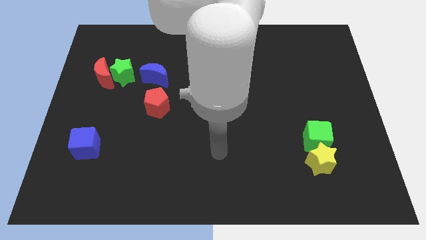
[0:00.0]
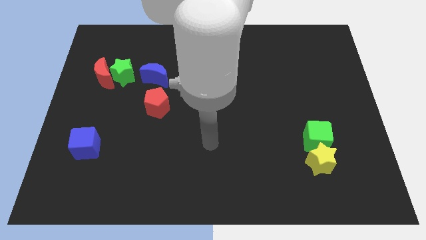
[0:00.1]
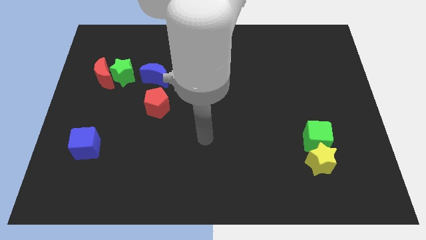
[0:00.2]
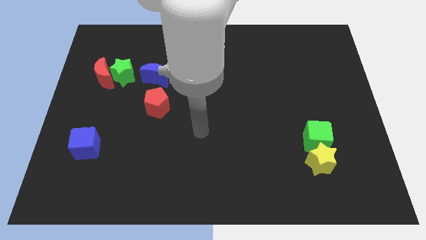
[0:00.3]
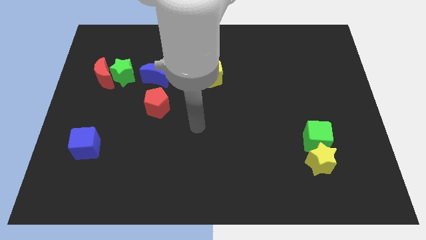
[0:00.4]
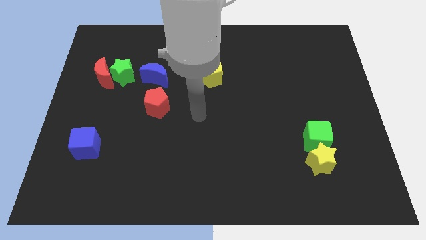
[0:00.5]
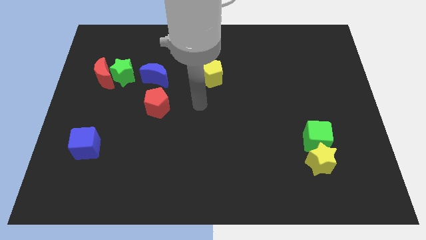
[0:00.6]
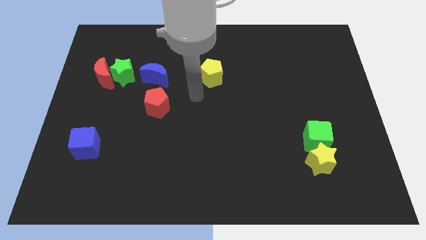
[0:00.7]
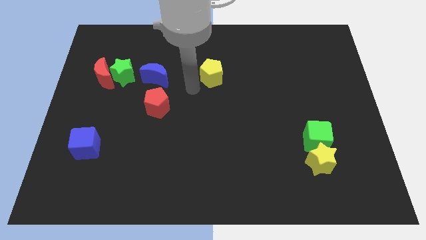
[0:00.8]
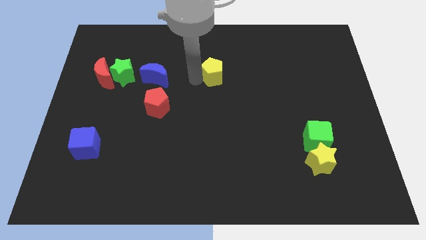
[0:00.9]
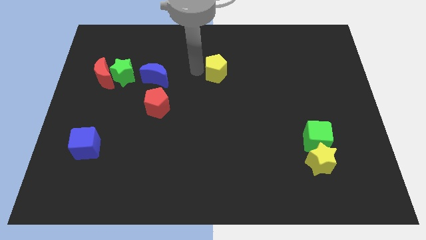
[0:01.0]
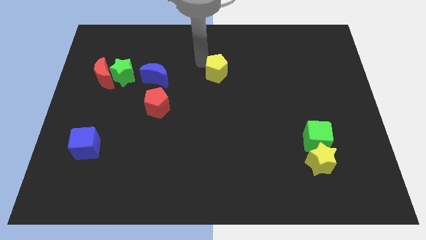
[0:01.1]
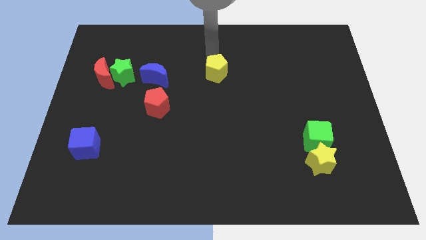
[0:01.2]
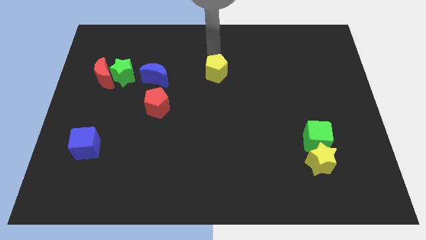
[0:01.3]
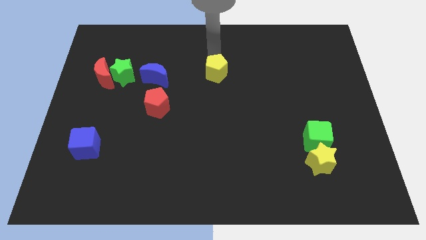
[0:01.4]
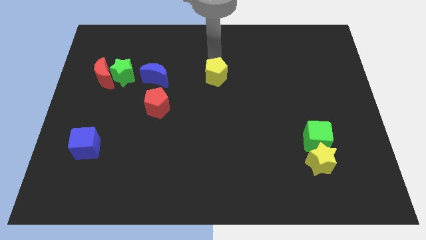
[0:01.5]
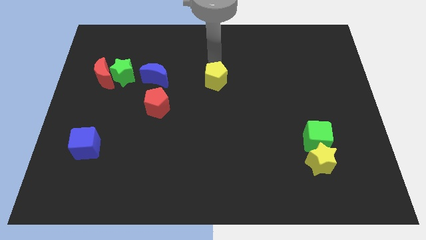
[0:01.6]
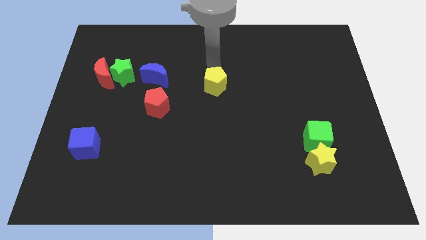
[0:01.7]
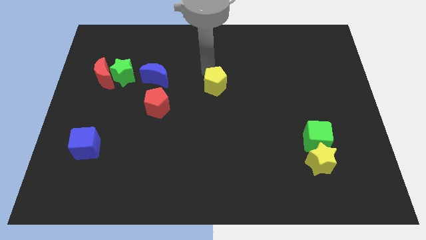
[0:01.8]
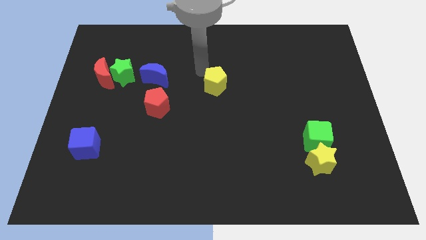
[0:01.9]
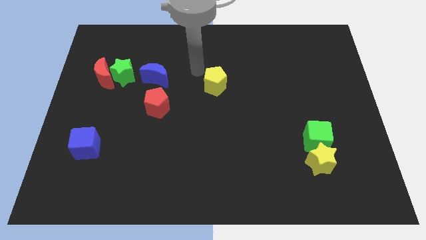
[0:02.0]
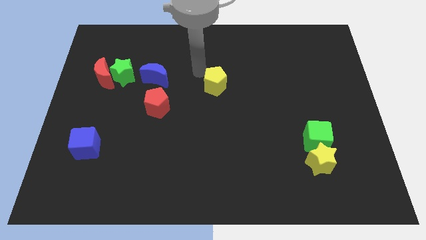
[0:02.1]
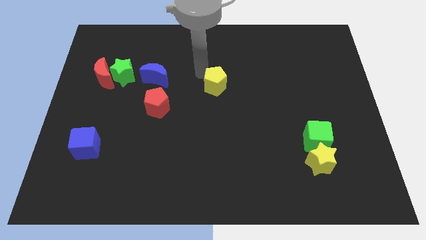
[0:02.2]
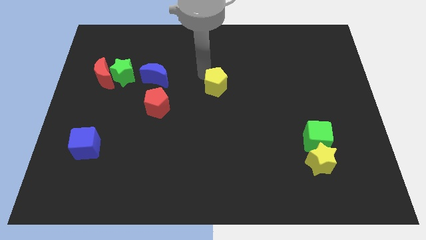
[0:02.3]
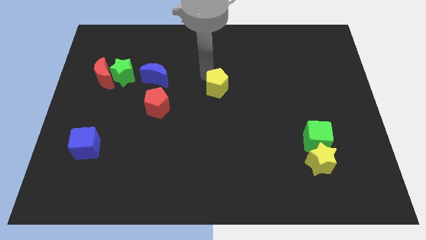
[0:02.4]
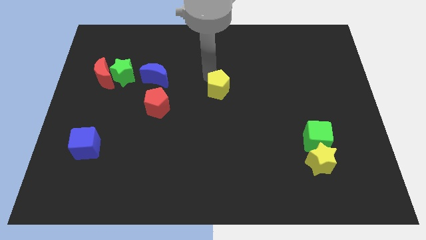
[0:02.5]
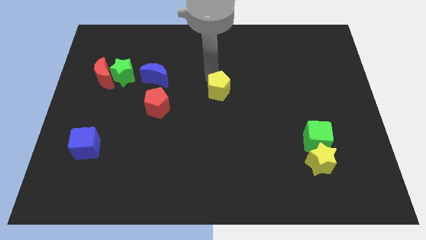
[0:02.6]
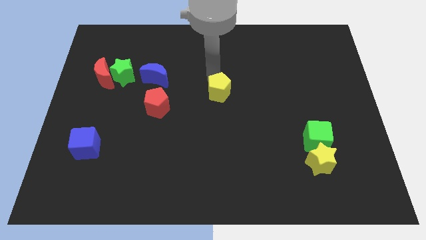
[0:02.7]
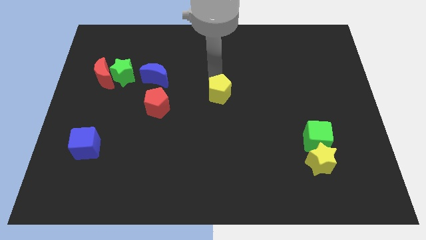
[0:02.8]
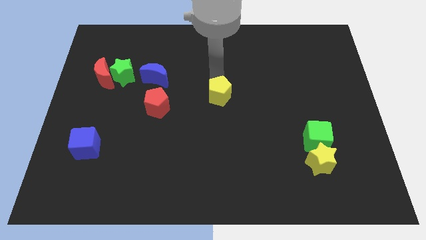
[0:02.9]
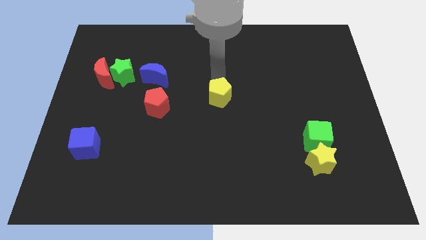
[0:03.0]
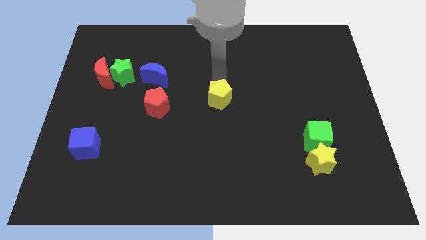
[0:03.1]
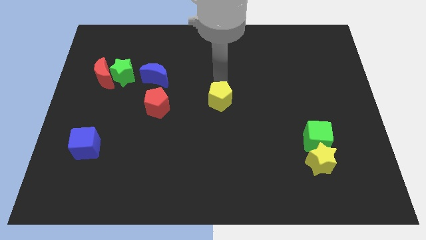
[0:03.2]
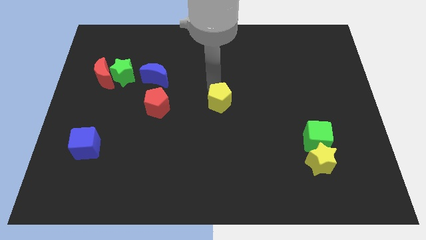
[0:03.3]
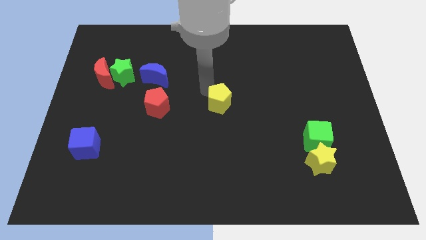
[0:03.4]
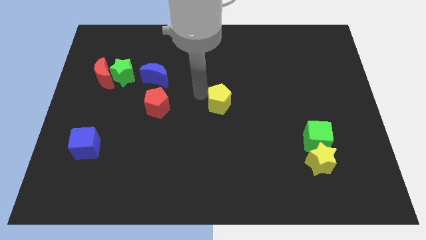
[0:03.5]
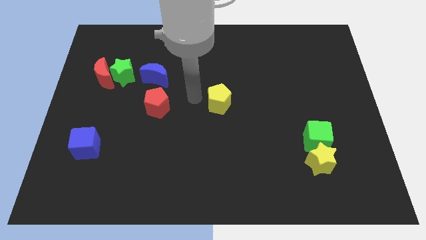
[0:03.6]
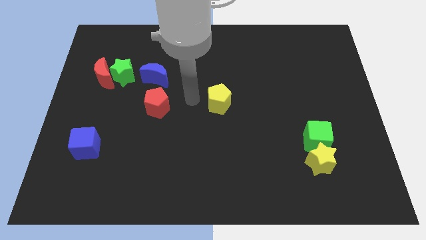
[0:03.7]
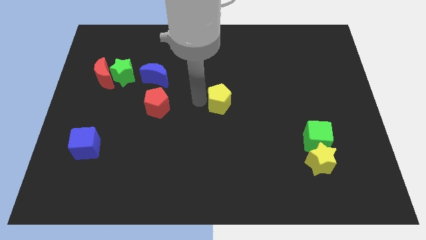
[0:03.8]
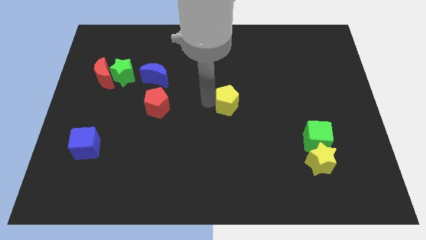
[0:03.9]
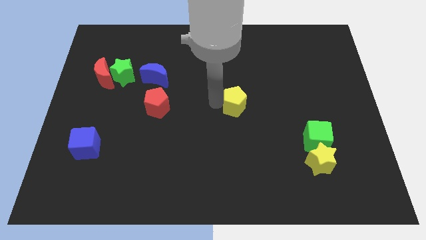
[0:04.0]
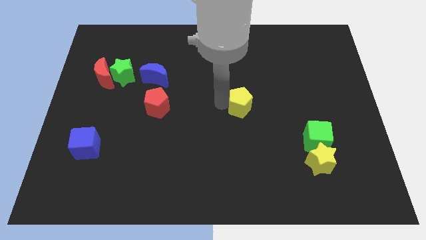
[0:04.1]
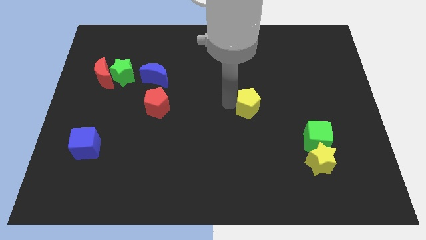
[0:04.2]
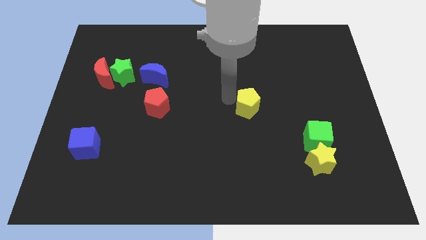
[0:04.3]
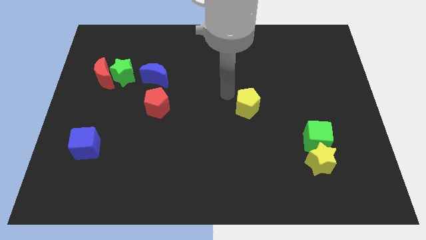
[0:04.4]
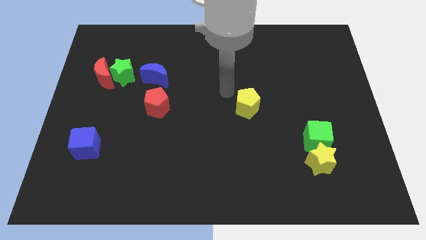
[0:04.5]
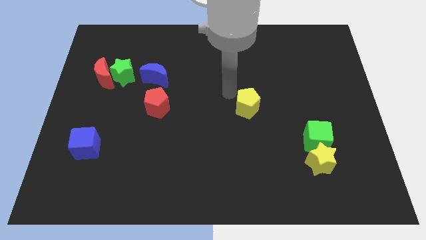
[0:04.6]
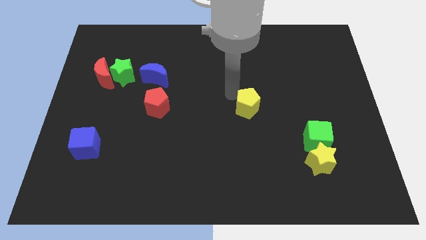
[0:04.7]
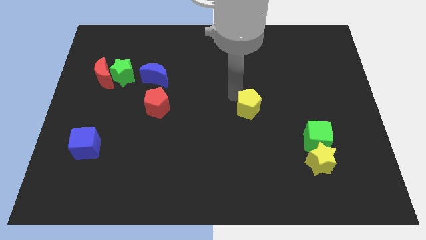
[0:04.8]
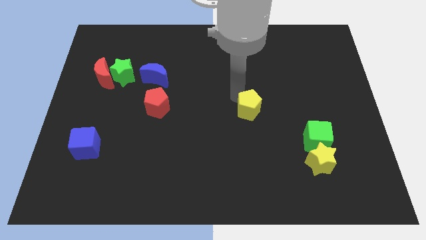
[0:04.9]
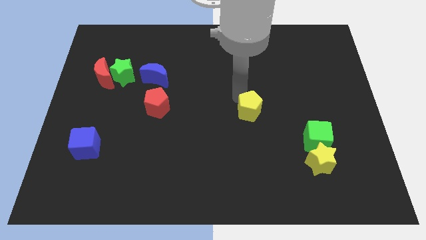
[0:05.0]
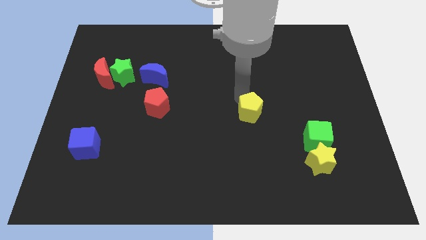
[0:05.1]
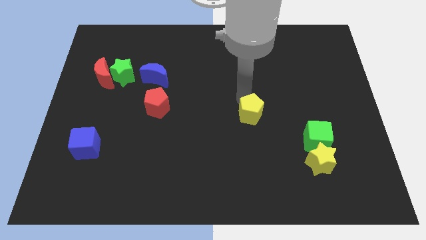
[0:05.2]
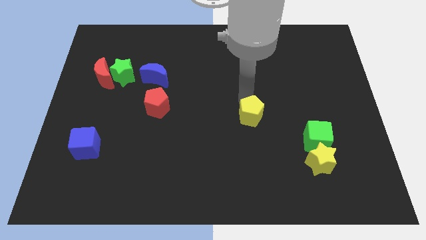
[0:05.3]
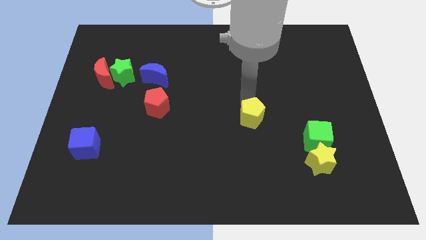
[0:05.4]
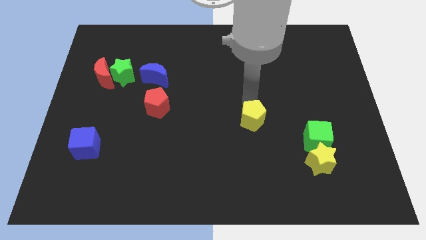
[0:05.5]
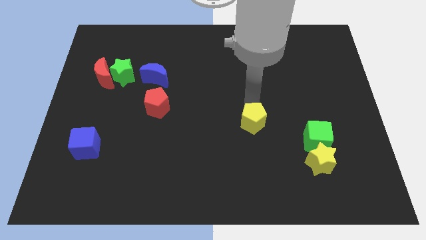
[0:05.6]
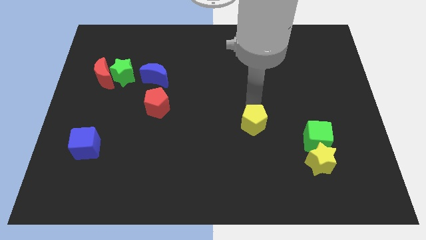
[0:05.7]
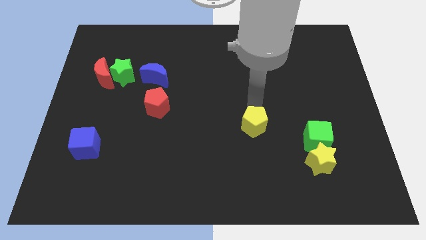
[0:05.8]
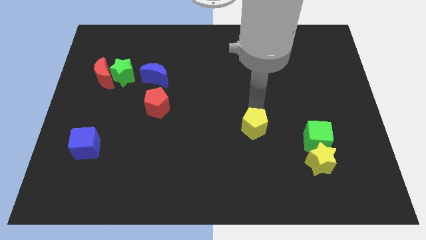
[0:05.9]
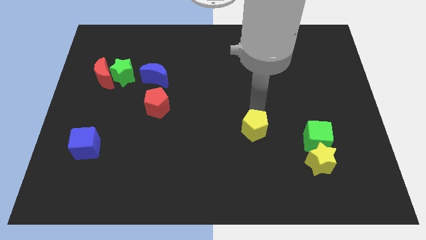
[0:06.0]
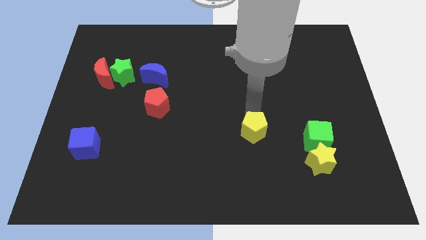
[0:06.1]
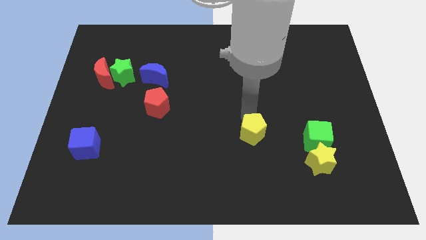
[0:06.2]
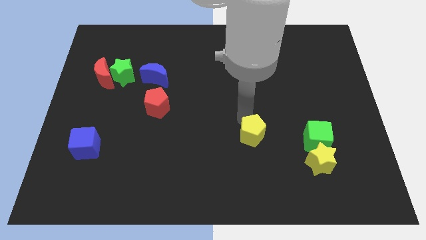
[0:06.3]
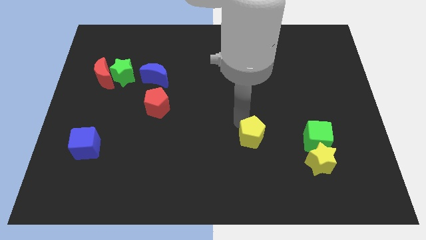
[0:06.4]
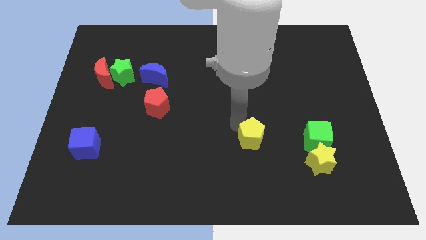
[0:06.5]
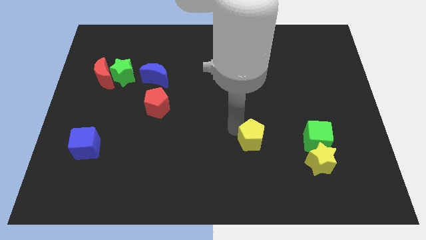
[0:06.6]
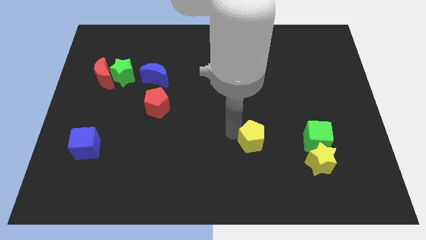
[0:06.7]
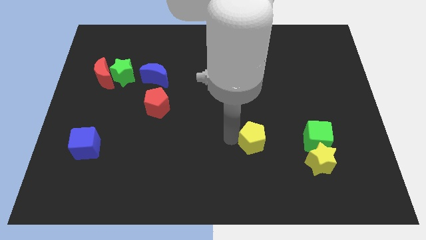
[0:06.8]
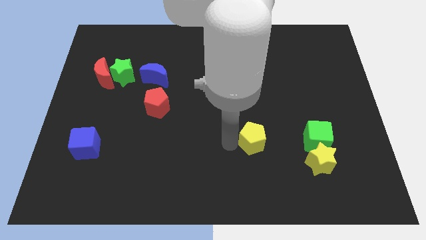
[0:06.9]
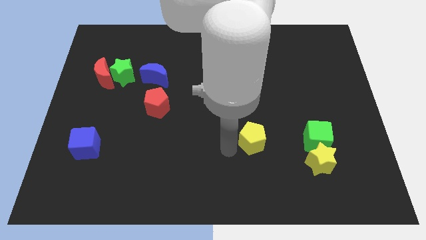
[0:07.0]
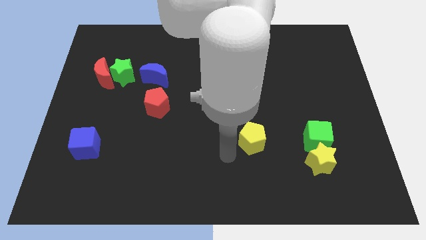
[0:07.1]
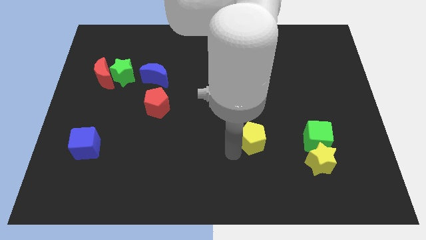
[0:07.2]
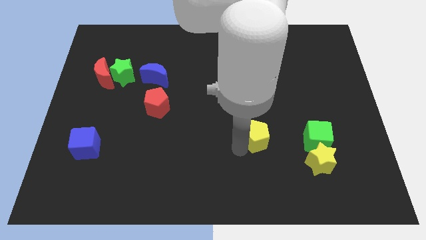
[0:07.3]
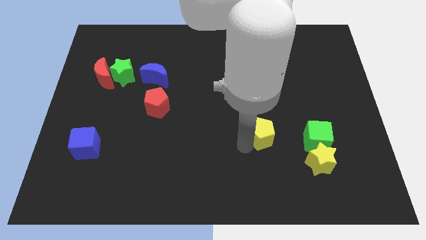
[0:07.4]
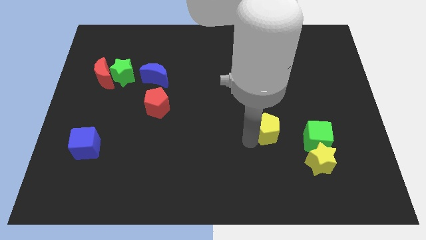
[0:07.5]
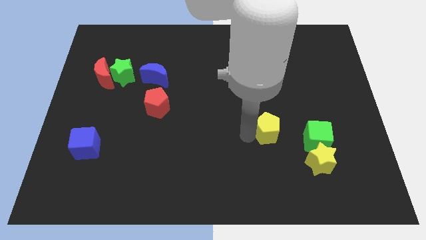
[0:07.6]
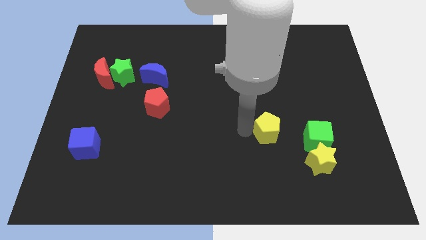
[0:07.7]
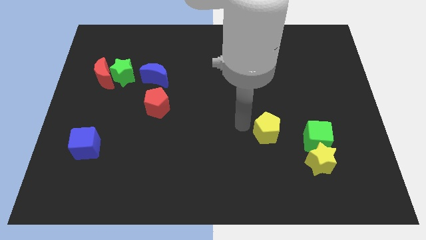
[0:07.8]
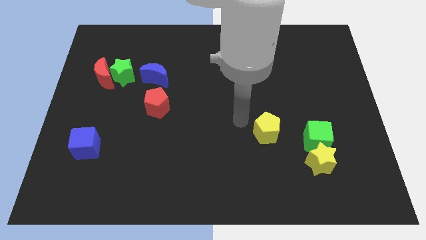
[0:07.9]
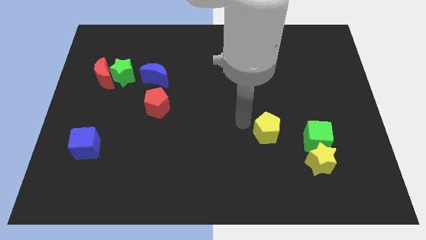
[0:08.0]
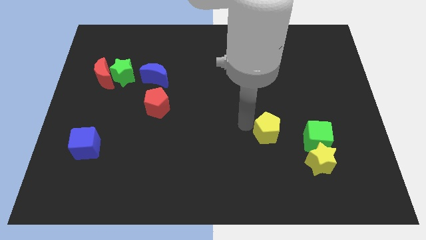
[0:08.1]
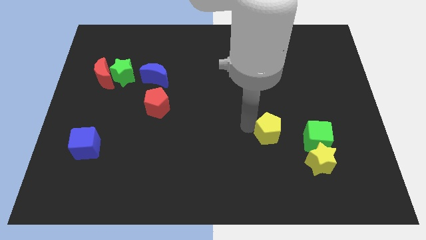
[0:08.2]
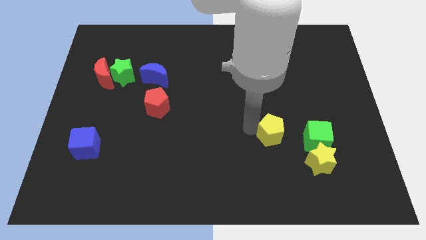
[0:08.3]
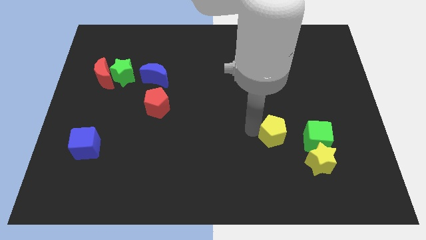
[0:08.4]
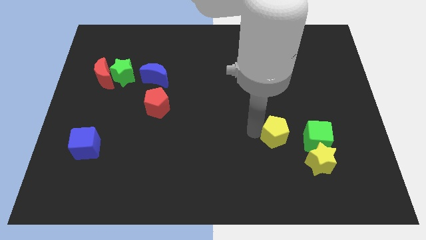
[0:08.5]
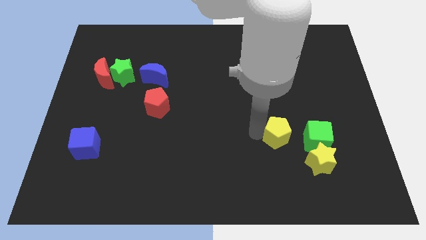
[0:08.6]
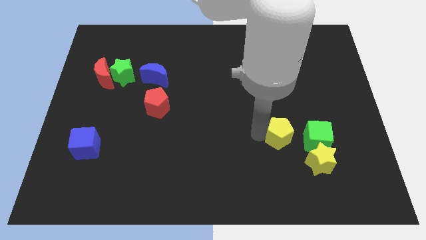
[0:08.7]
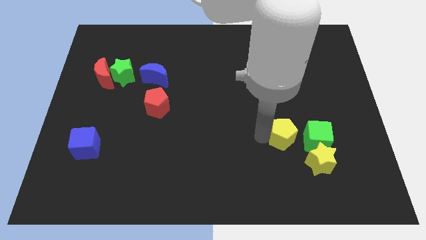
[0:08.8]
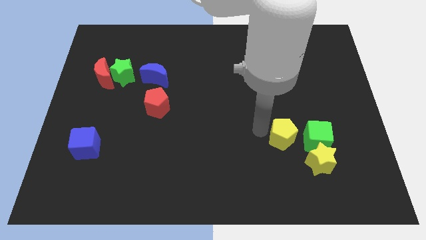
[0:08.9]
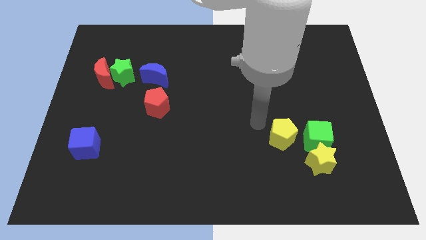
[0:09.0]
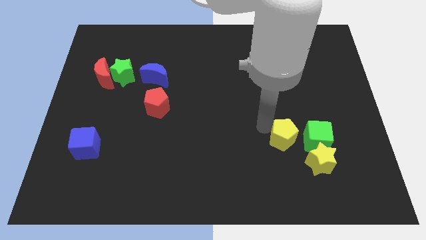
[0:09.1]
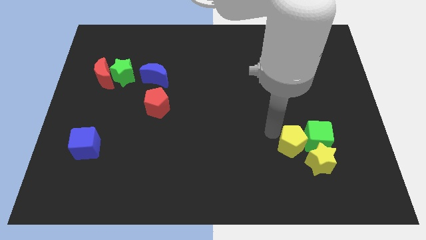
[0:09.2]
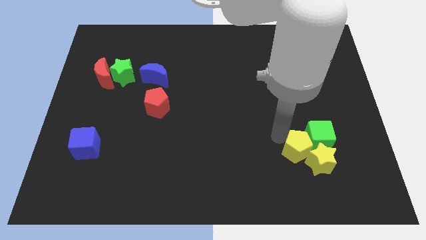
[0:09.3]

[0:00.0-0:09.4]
slide the yellow pentagon to the yellow star
